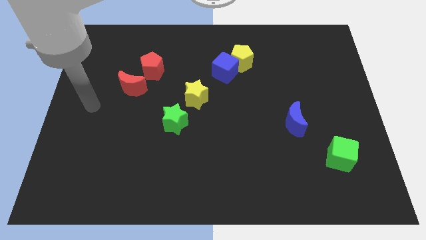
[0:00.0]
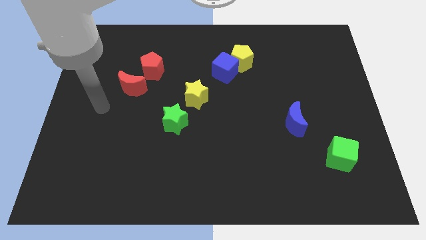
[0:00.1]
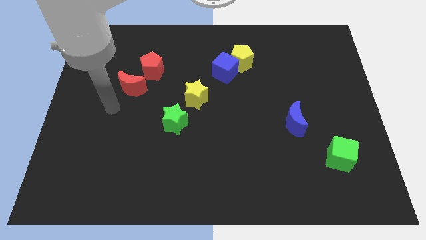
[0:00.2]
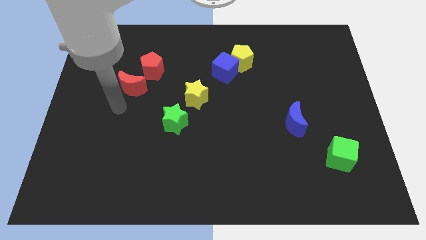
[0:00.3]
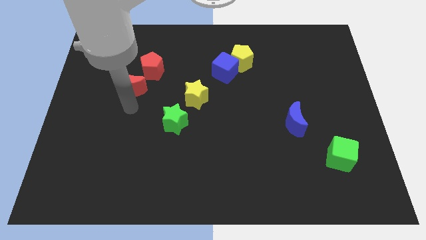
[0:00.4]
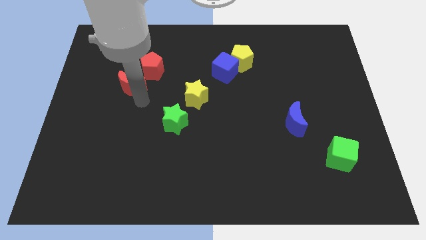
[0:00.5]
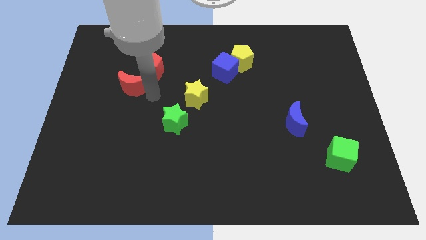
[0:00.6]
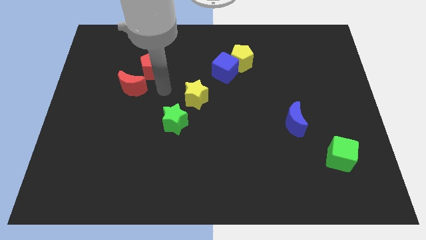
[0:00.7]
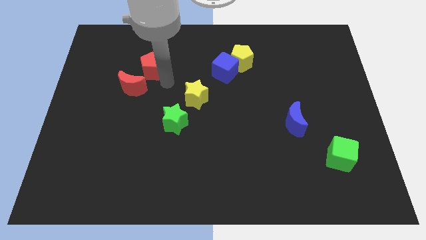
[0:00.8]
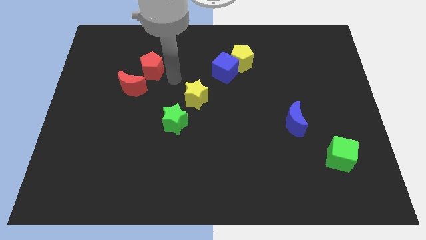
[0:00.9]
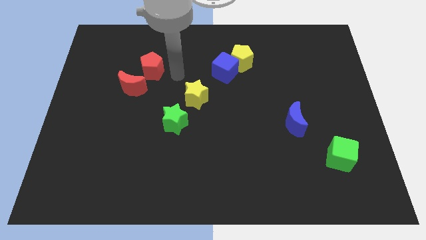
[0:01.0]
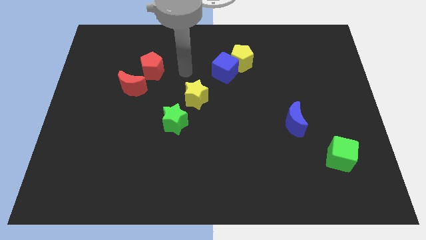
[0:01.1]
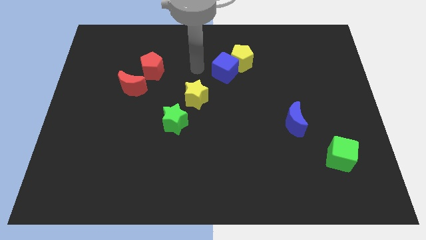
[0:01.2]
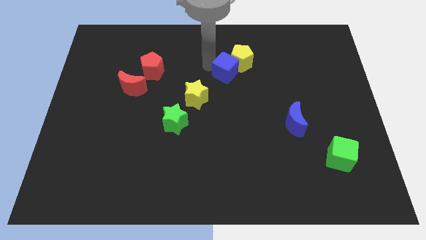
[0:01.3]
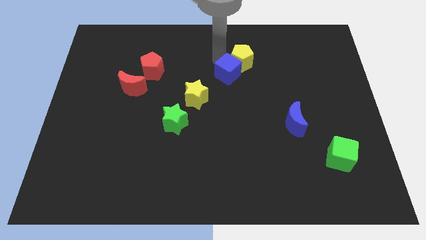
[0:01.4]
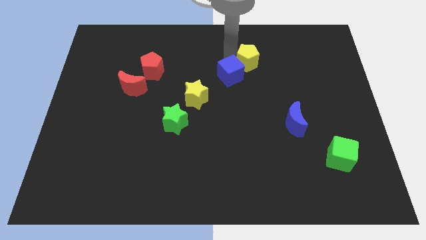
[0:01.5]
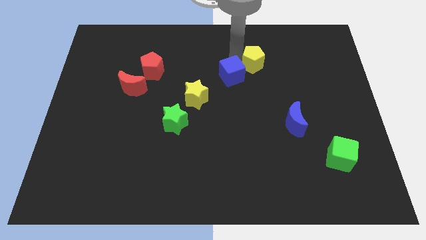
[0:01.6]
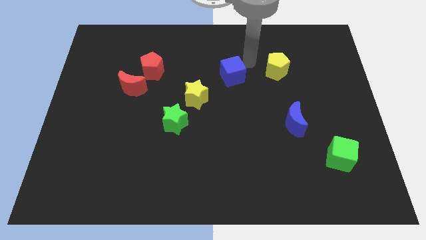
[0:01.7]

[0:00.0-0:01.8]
move the blue cube away from the yellow pentagon

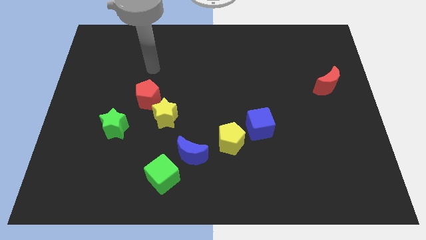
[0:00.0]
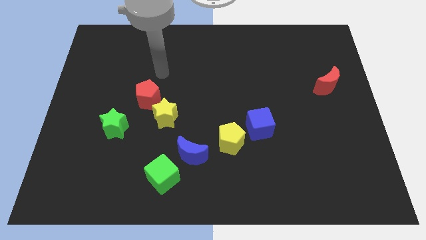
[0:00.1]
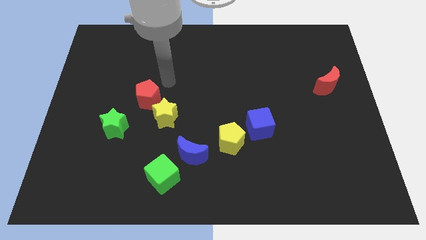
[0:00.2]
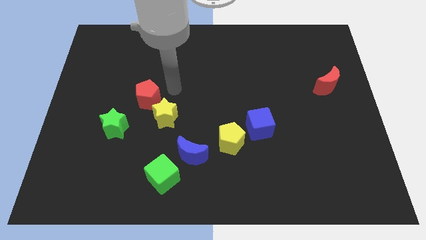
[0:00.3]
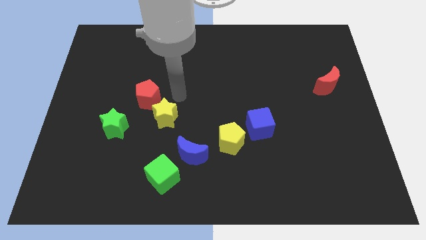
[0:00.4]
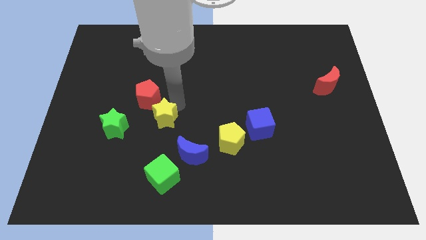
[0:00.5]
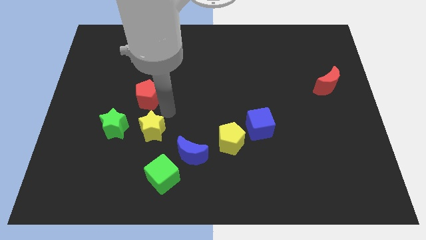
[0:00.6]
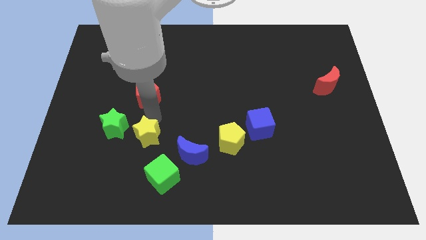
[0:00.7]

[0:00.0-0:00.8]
move the red pentagon away from the yellow star

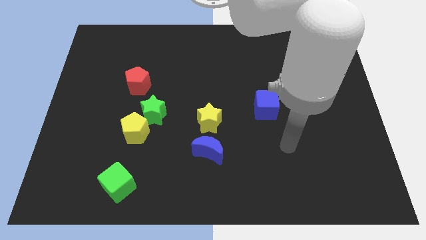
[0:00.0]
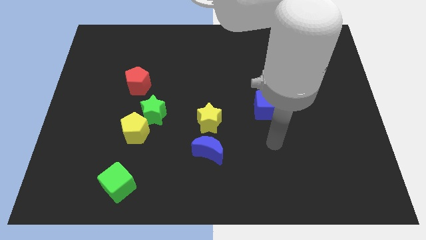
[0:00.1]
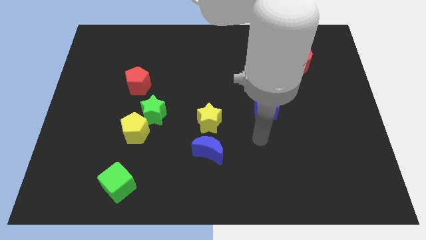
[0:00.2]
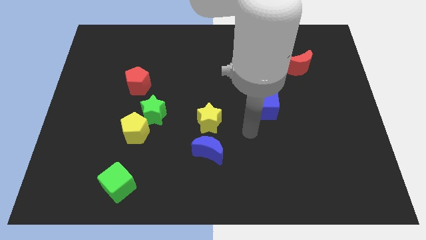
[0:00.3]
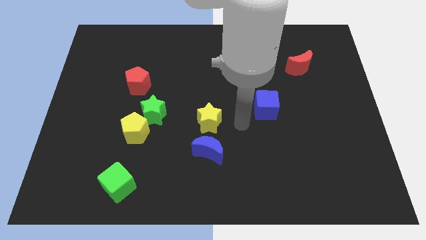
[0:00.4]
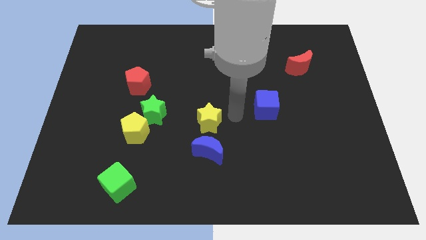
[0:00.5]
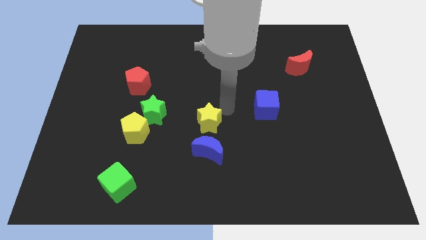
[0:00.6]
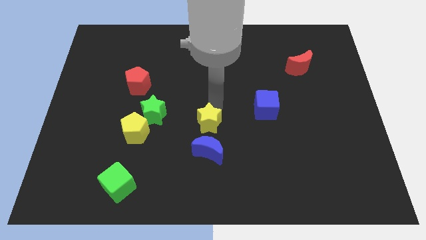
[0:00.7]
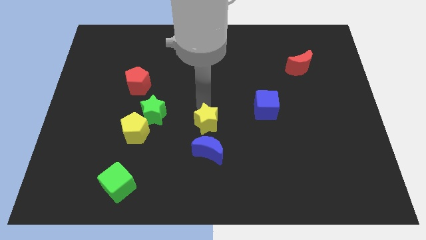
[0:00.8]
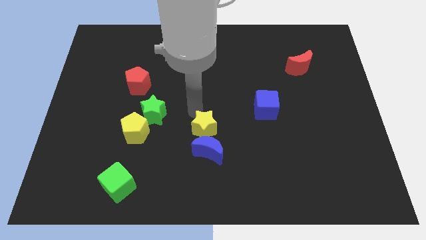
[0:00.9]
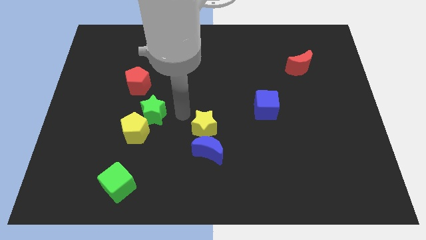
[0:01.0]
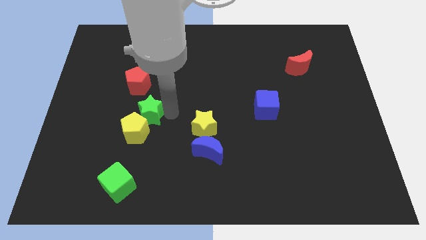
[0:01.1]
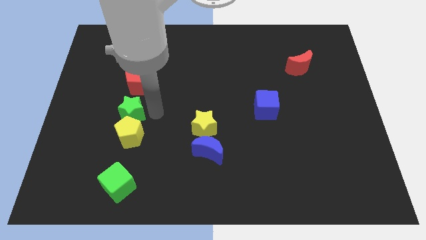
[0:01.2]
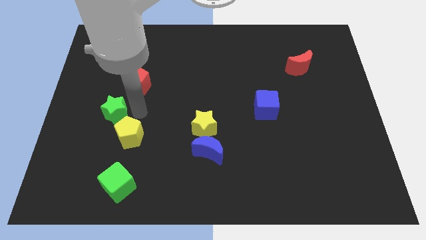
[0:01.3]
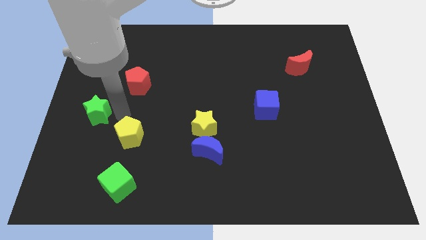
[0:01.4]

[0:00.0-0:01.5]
separate the yellow pentagon from the green star

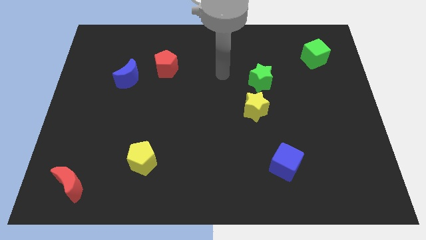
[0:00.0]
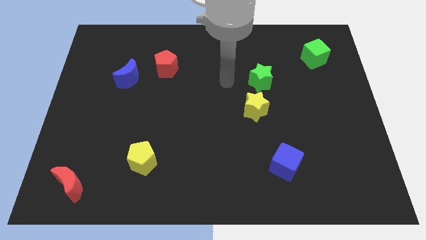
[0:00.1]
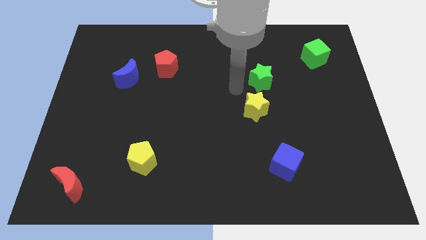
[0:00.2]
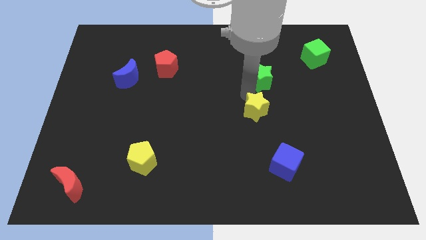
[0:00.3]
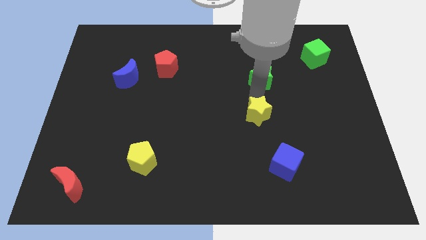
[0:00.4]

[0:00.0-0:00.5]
separate the green star from the yellow star

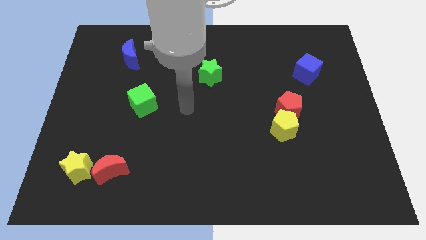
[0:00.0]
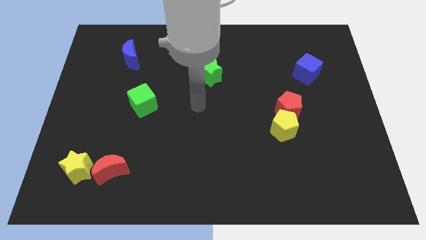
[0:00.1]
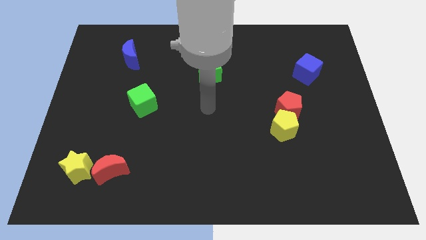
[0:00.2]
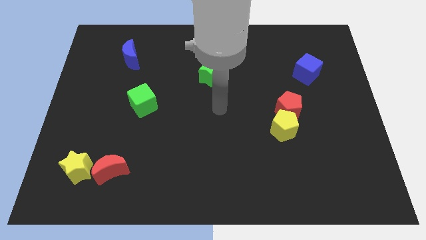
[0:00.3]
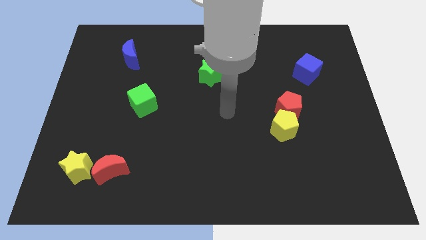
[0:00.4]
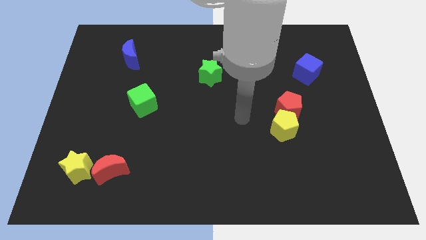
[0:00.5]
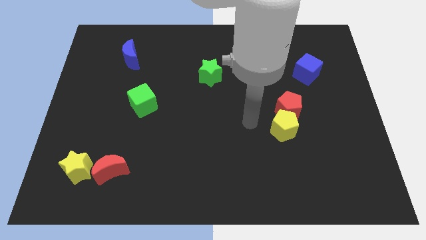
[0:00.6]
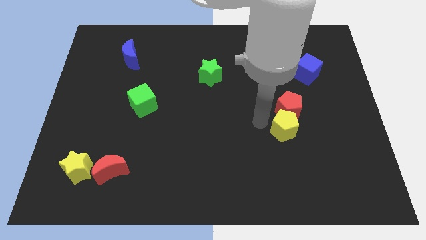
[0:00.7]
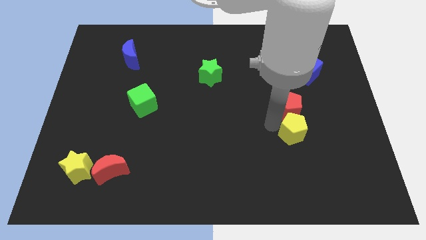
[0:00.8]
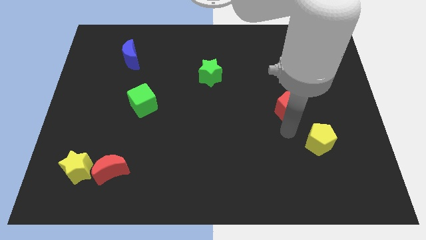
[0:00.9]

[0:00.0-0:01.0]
move the red pentagon away from the yellow pentagon

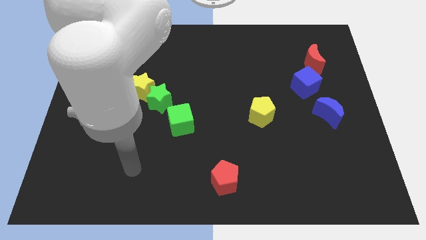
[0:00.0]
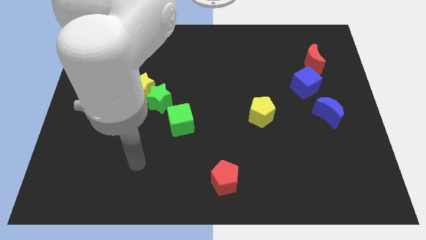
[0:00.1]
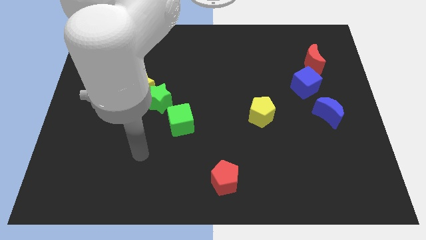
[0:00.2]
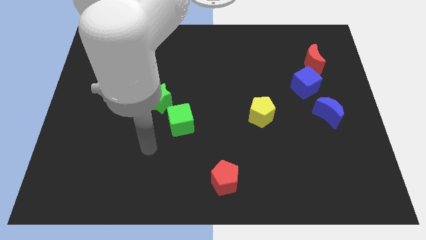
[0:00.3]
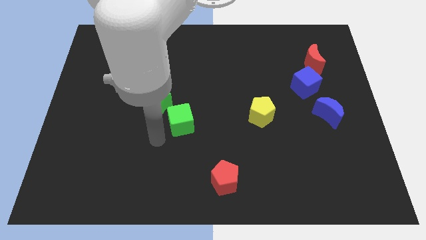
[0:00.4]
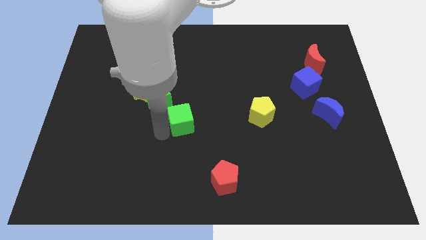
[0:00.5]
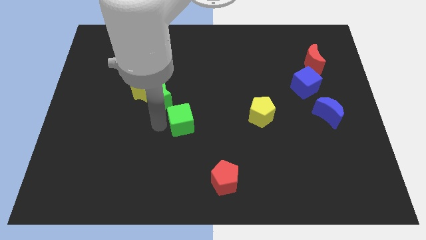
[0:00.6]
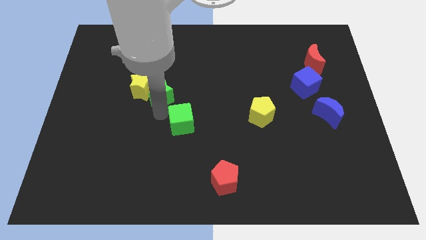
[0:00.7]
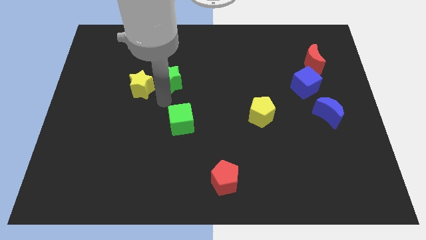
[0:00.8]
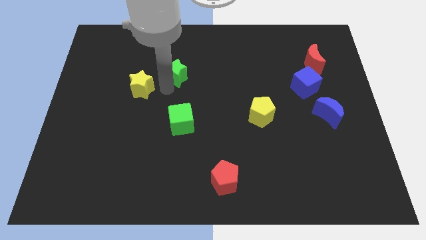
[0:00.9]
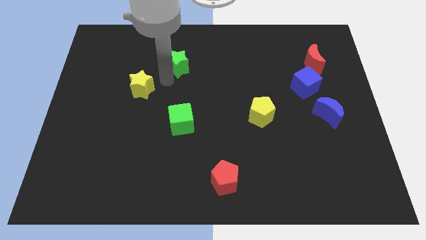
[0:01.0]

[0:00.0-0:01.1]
move the yellow star away from the green star

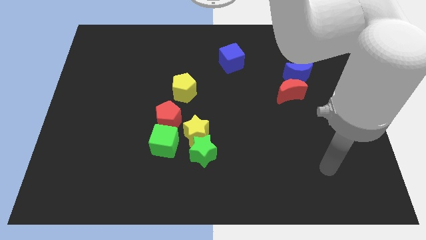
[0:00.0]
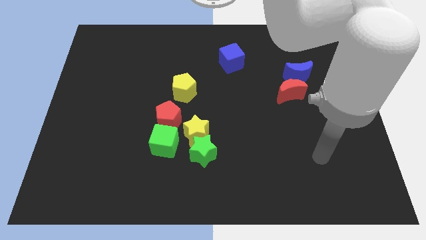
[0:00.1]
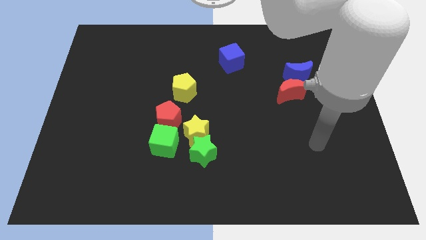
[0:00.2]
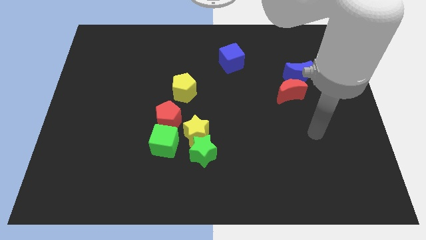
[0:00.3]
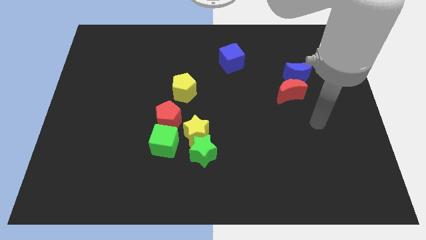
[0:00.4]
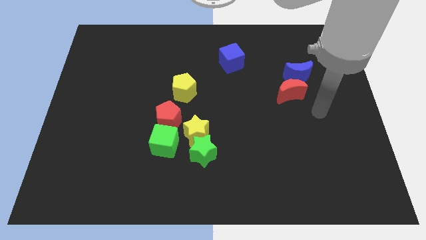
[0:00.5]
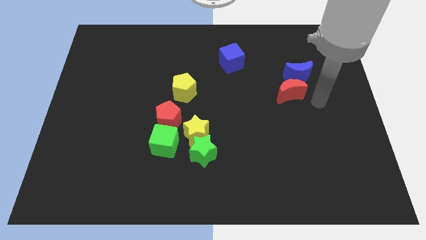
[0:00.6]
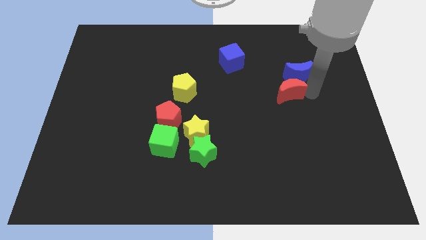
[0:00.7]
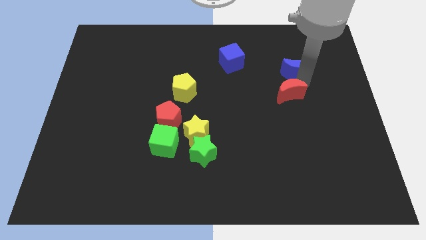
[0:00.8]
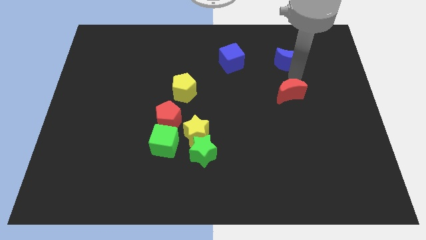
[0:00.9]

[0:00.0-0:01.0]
separate the red moon from the blue moon

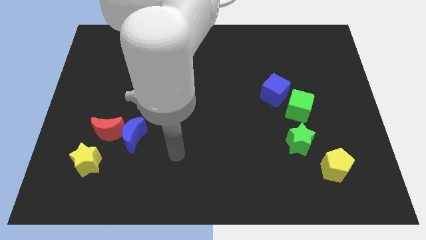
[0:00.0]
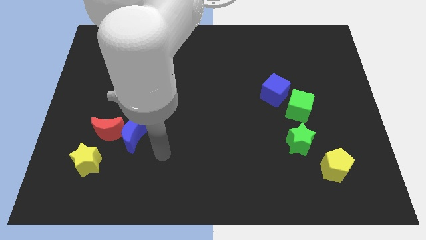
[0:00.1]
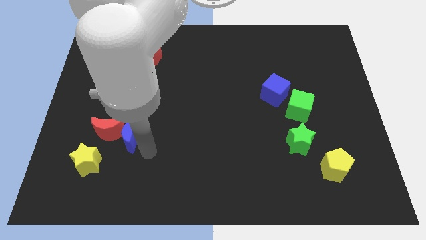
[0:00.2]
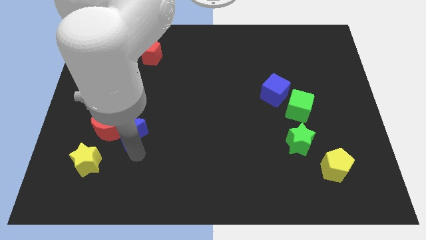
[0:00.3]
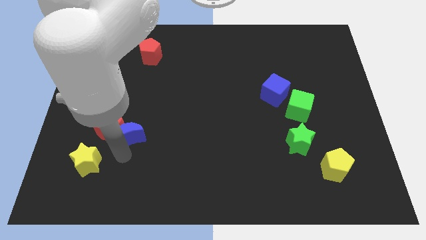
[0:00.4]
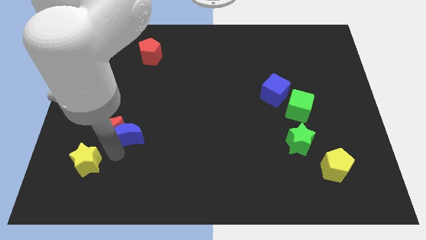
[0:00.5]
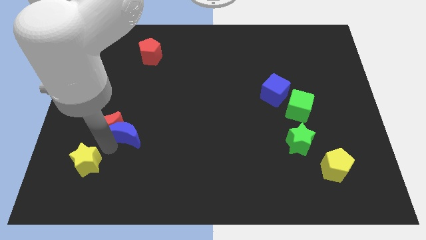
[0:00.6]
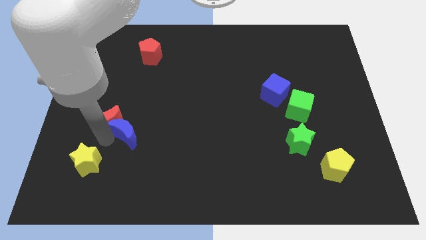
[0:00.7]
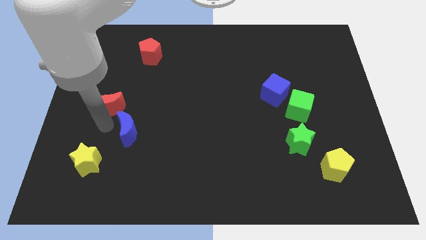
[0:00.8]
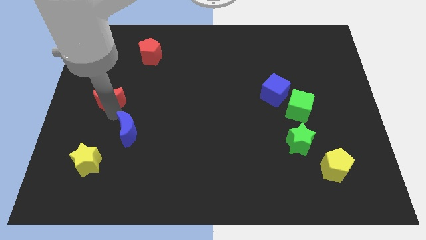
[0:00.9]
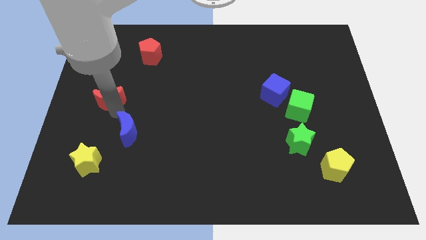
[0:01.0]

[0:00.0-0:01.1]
pull the blue moon apart from the red moon

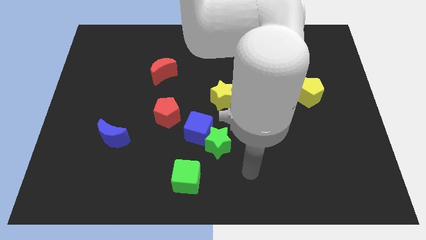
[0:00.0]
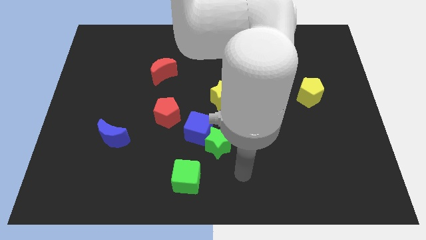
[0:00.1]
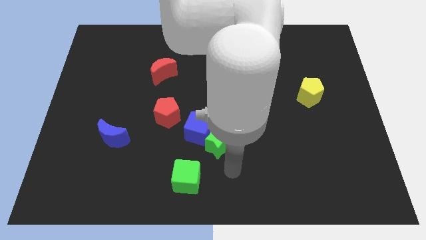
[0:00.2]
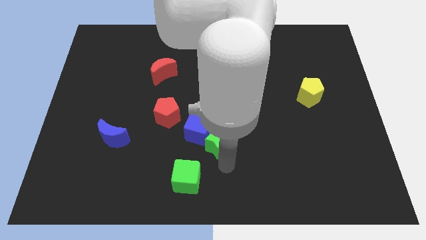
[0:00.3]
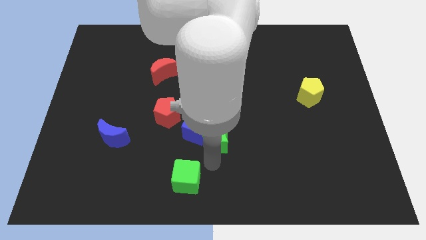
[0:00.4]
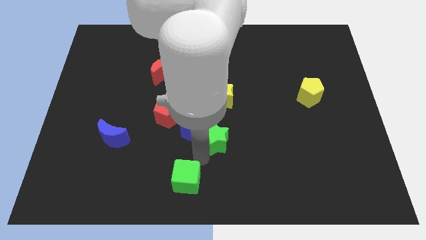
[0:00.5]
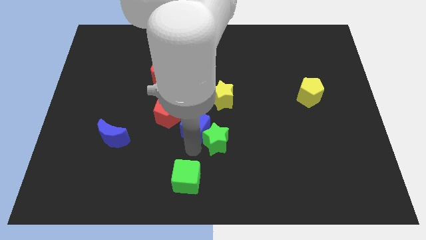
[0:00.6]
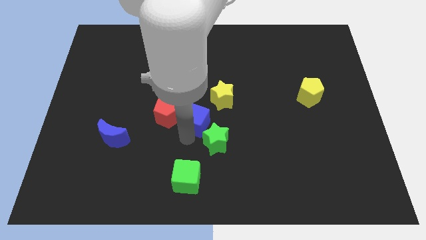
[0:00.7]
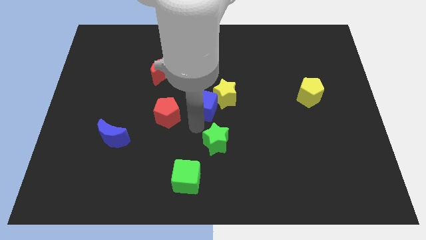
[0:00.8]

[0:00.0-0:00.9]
move the green star away from the blue cube
